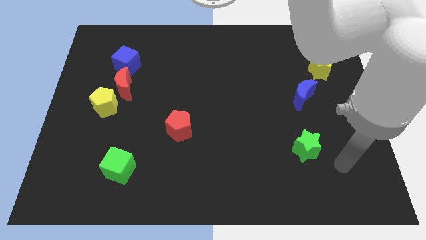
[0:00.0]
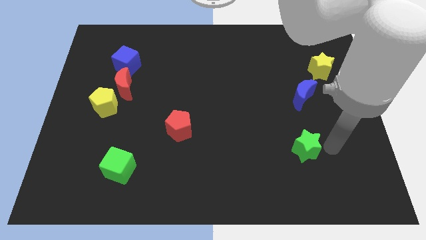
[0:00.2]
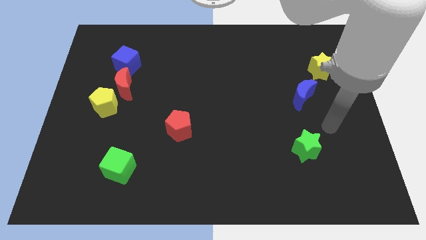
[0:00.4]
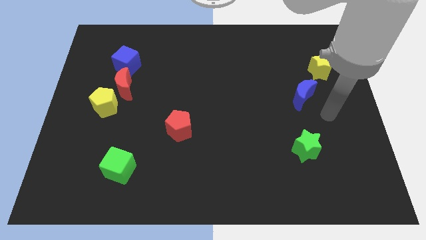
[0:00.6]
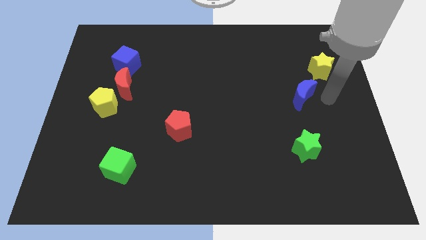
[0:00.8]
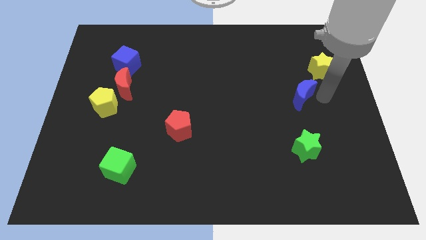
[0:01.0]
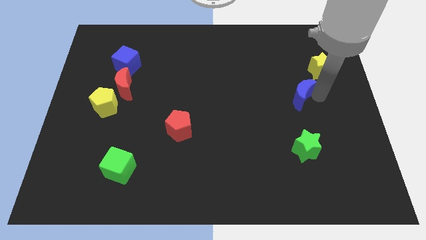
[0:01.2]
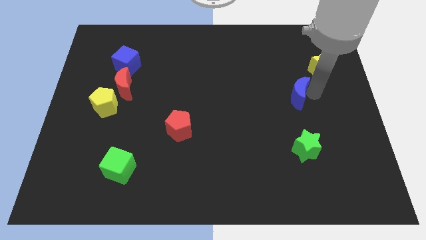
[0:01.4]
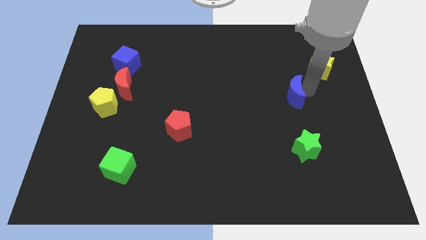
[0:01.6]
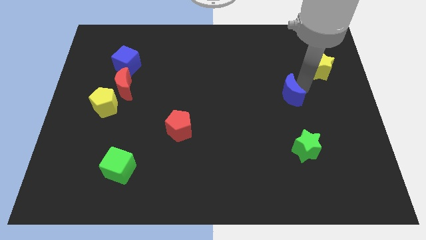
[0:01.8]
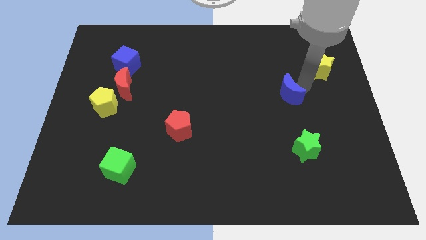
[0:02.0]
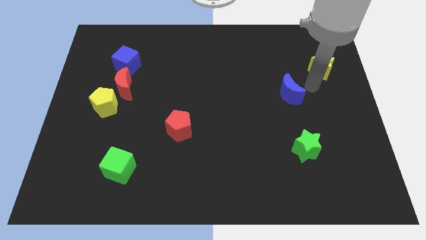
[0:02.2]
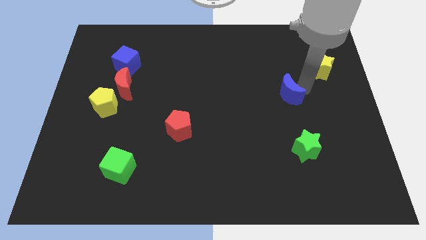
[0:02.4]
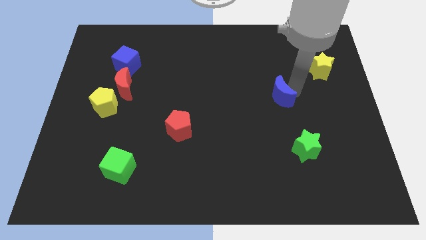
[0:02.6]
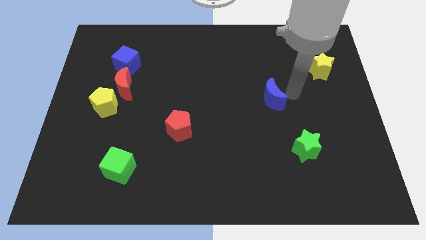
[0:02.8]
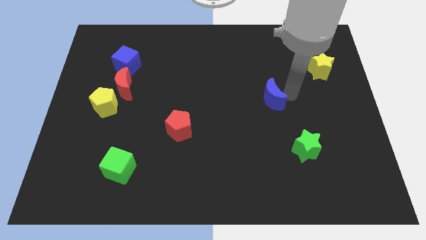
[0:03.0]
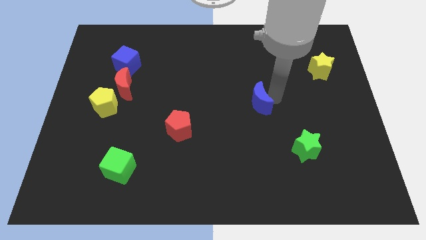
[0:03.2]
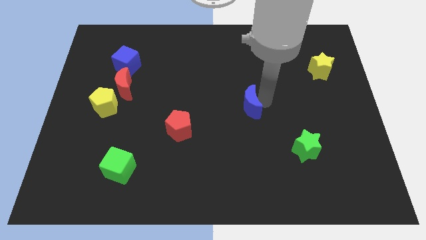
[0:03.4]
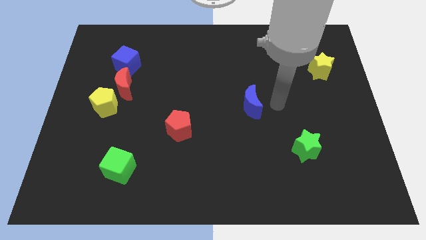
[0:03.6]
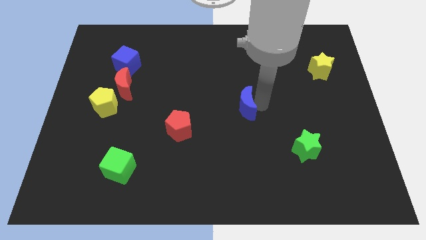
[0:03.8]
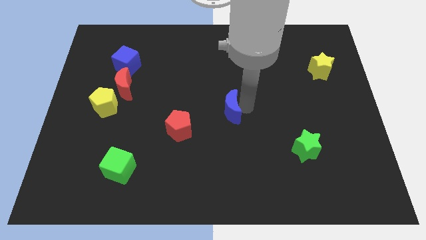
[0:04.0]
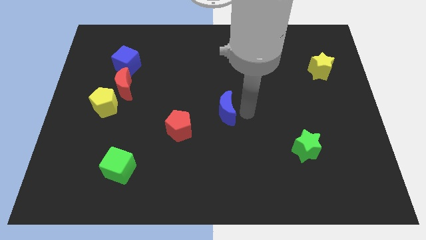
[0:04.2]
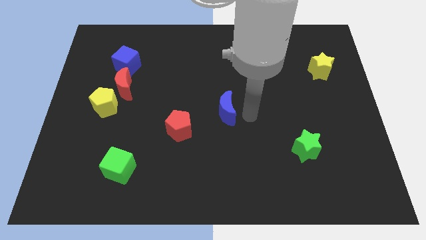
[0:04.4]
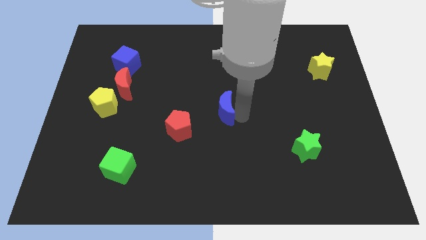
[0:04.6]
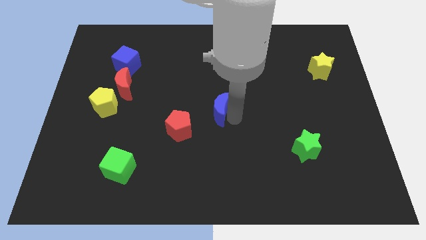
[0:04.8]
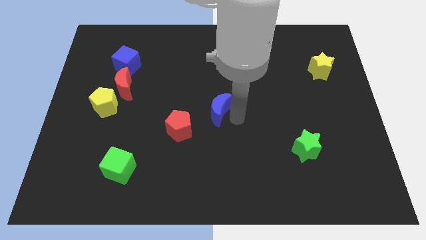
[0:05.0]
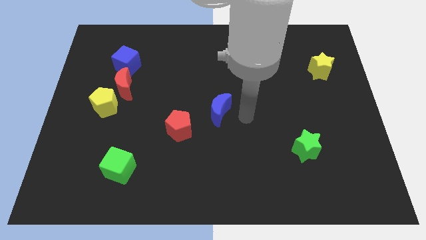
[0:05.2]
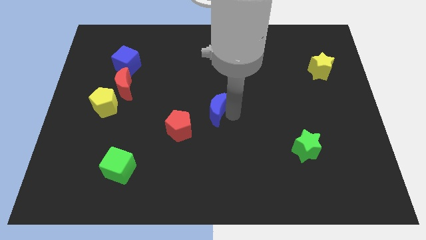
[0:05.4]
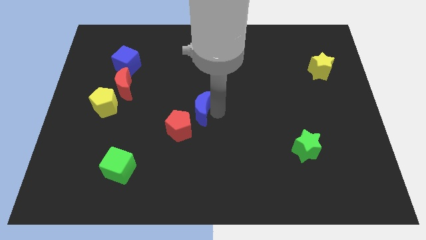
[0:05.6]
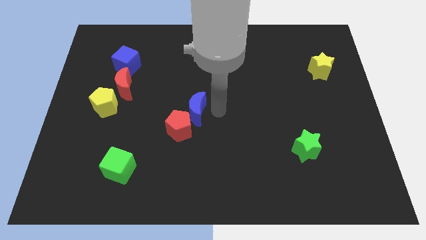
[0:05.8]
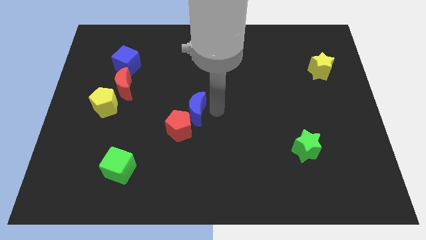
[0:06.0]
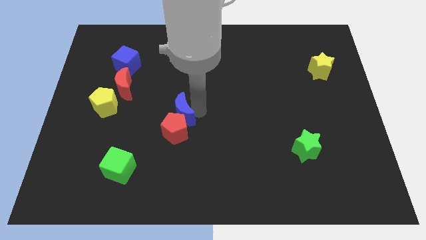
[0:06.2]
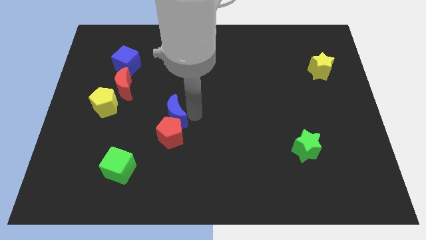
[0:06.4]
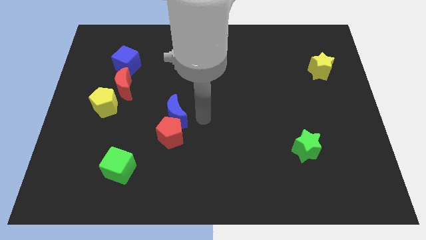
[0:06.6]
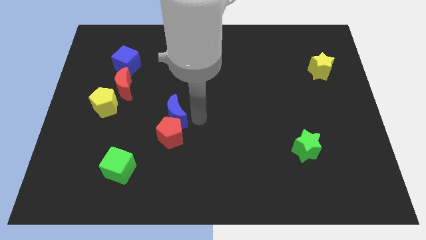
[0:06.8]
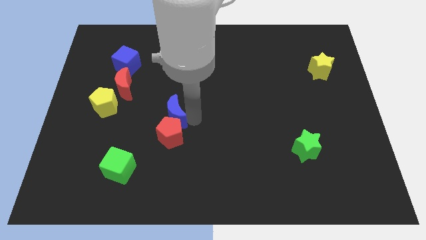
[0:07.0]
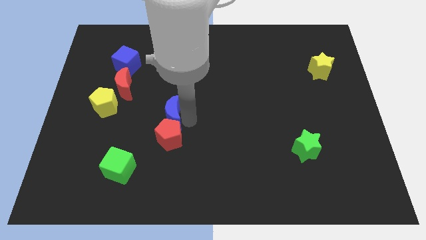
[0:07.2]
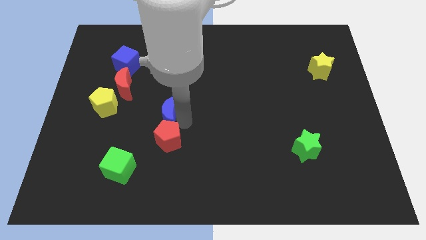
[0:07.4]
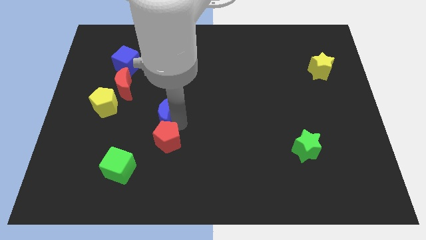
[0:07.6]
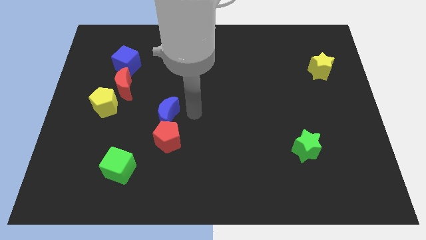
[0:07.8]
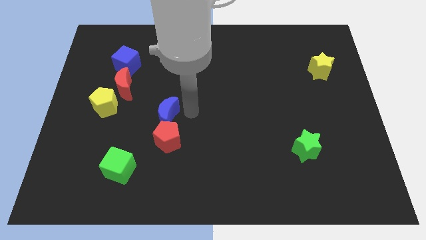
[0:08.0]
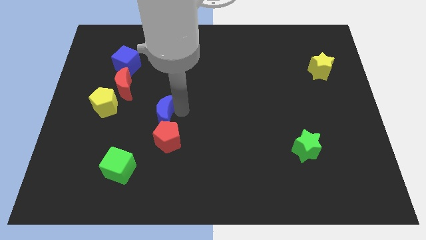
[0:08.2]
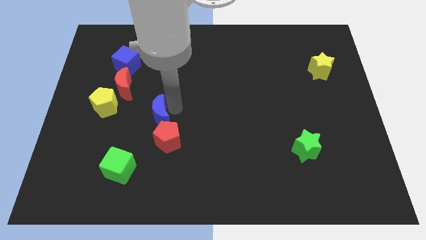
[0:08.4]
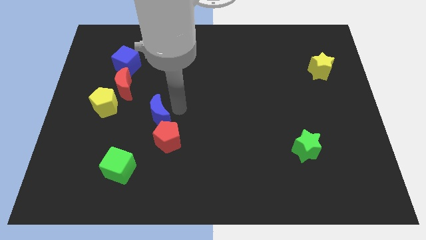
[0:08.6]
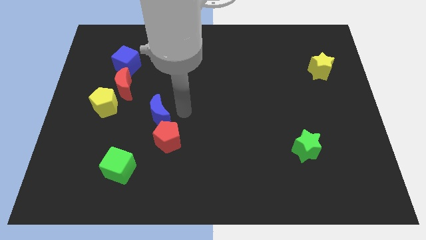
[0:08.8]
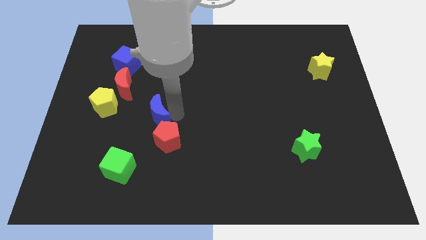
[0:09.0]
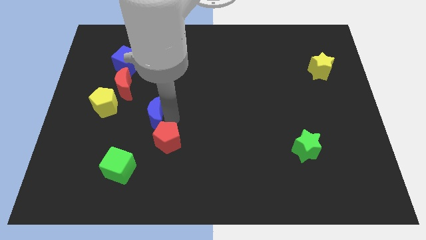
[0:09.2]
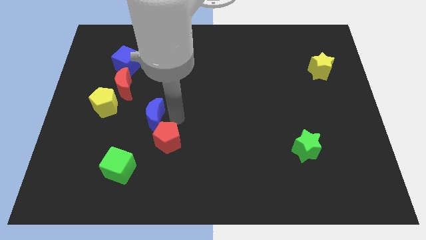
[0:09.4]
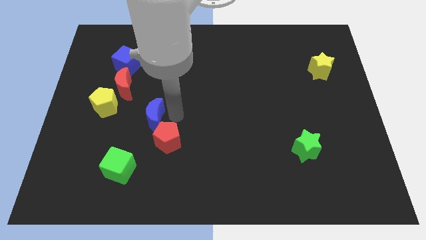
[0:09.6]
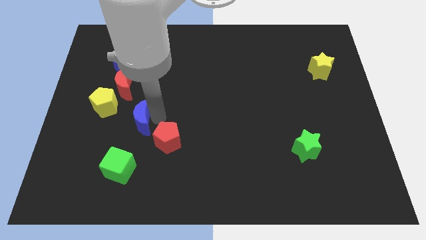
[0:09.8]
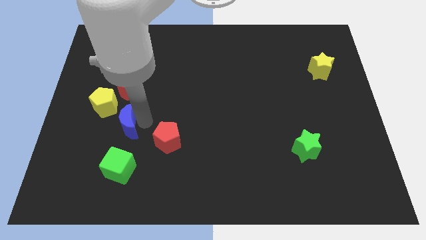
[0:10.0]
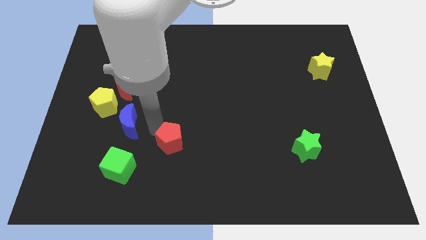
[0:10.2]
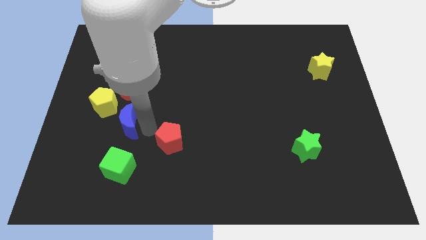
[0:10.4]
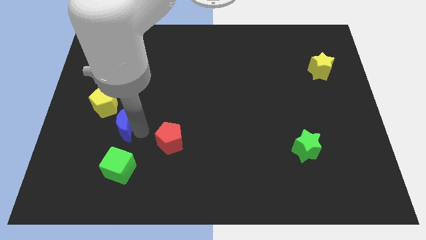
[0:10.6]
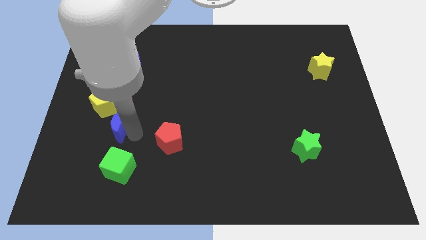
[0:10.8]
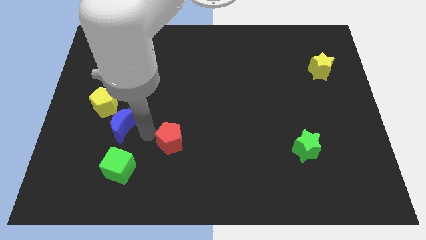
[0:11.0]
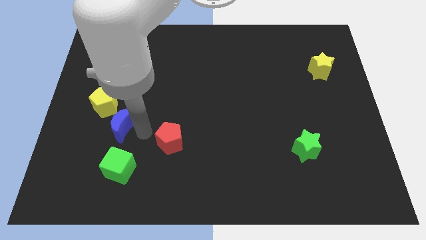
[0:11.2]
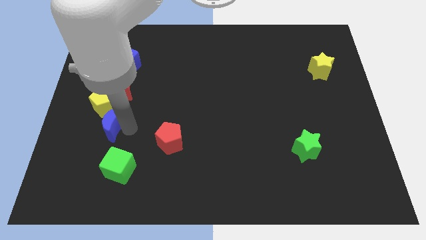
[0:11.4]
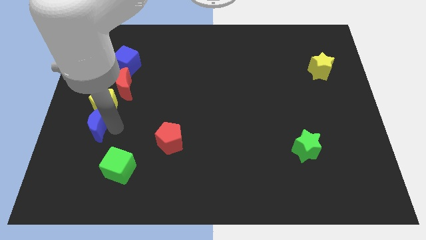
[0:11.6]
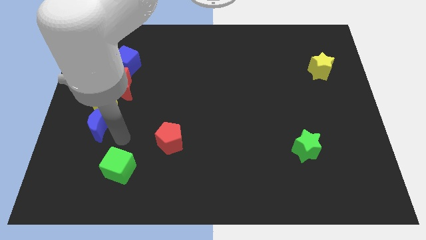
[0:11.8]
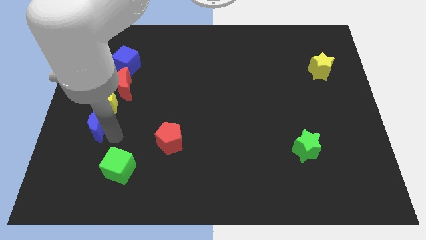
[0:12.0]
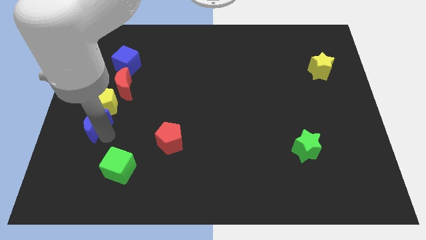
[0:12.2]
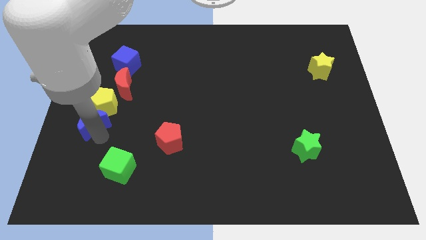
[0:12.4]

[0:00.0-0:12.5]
slide the blue moon to the left side of the board
